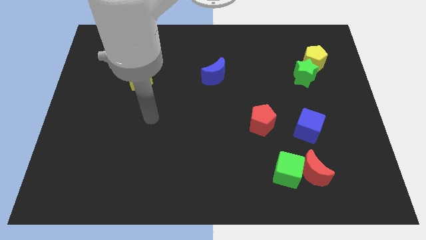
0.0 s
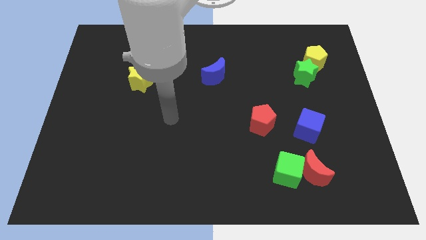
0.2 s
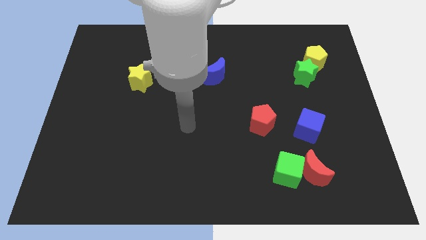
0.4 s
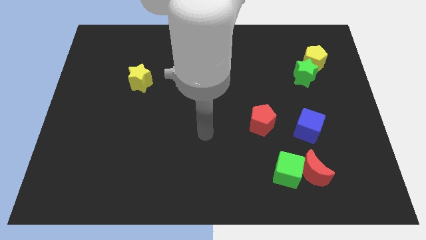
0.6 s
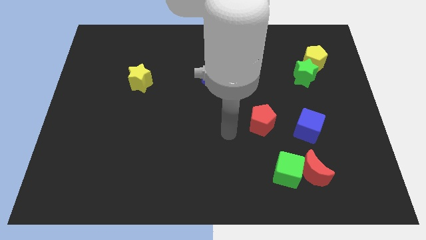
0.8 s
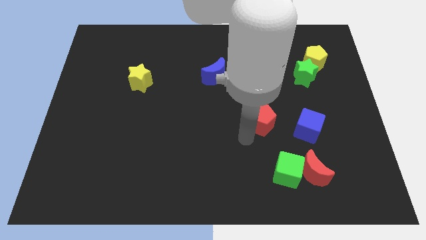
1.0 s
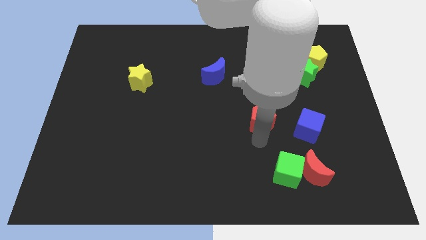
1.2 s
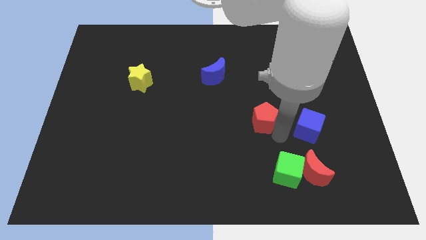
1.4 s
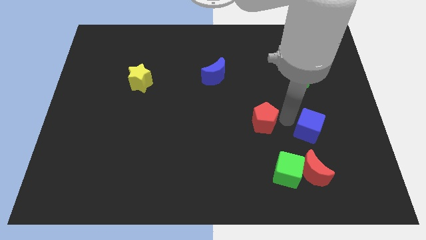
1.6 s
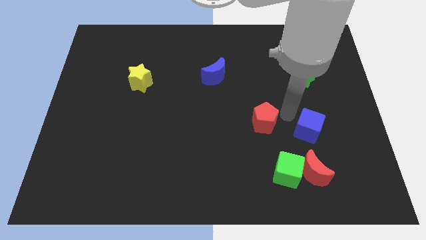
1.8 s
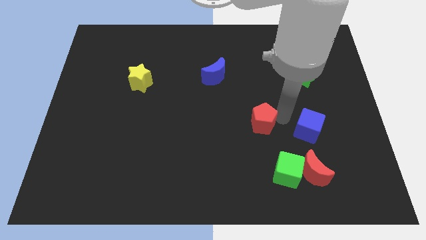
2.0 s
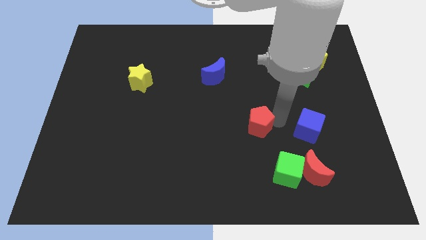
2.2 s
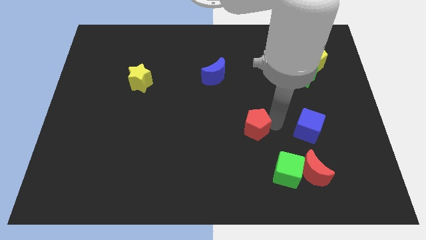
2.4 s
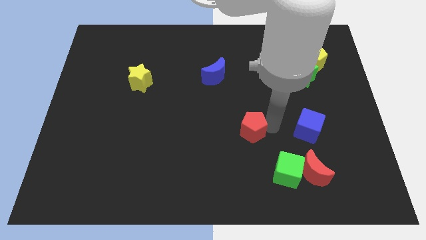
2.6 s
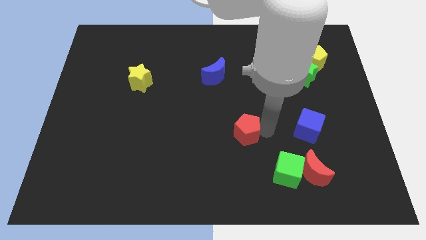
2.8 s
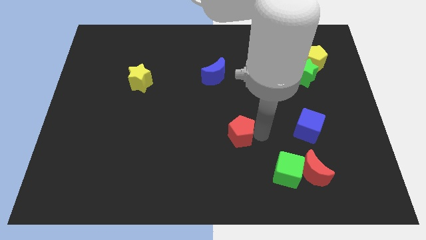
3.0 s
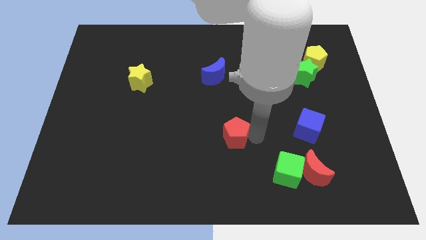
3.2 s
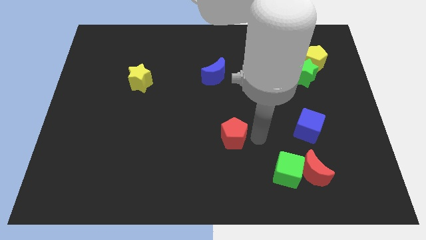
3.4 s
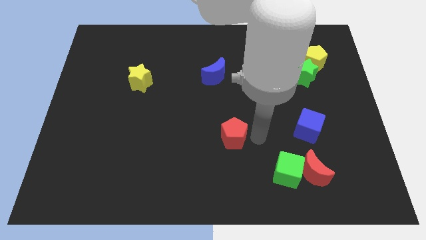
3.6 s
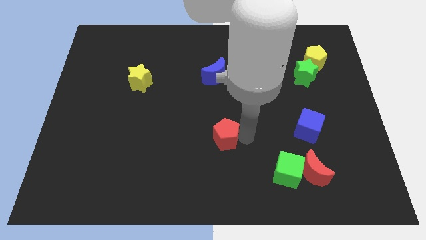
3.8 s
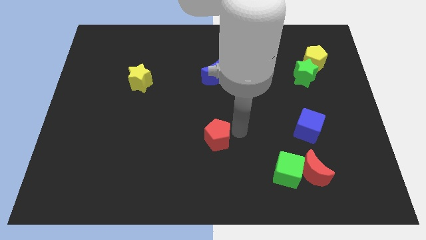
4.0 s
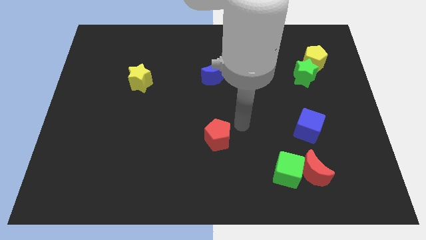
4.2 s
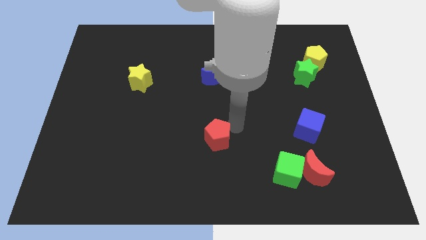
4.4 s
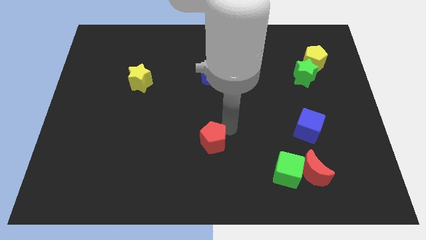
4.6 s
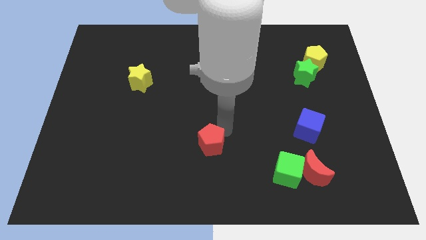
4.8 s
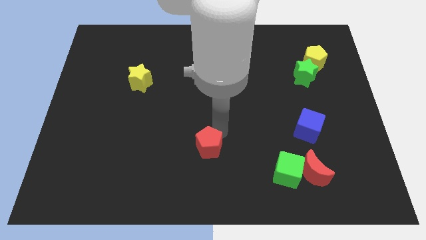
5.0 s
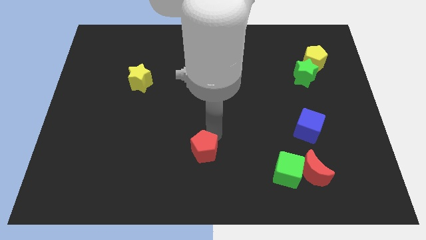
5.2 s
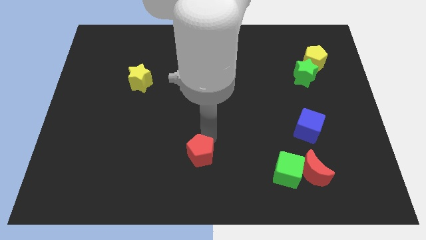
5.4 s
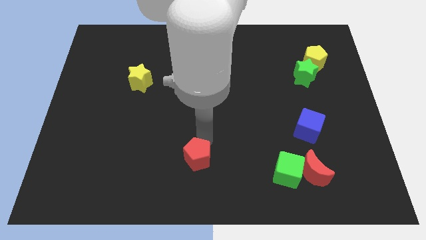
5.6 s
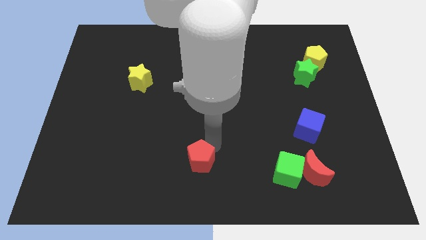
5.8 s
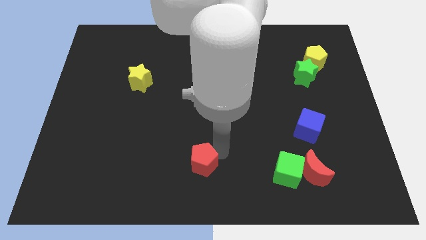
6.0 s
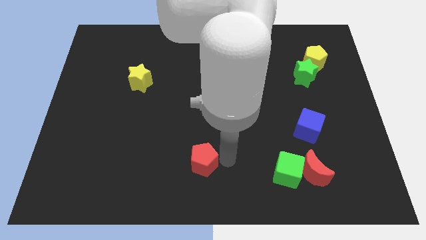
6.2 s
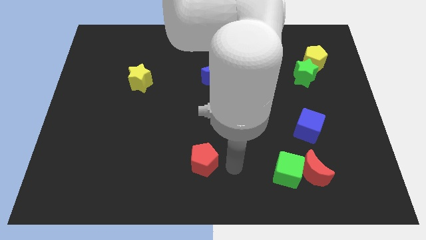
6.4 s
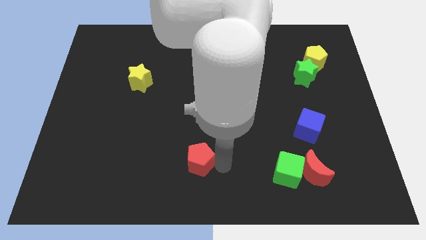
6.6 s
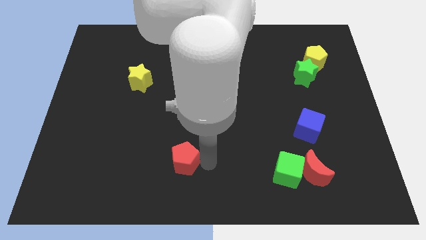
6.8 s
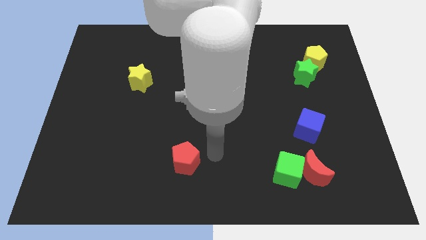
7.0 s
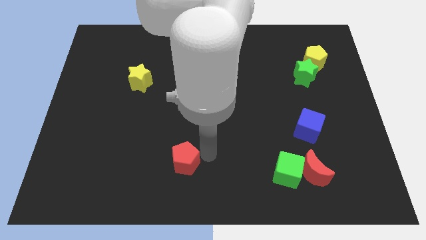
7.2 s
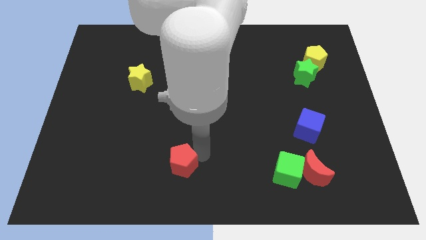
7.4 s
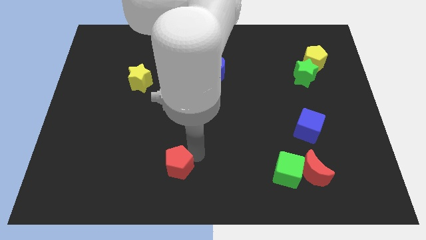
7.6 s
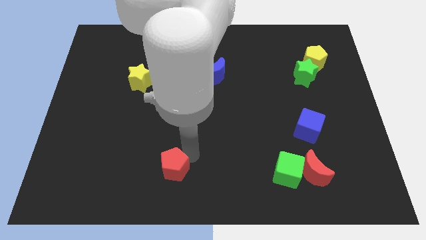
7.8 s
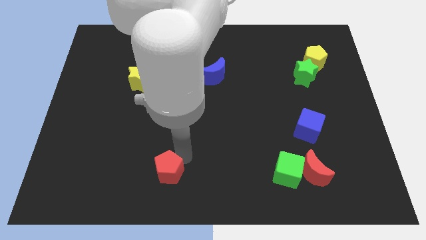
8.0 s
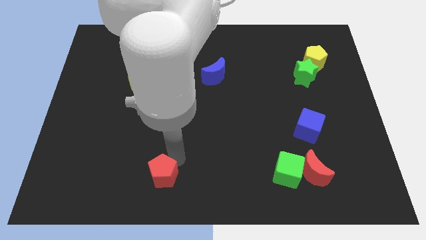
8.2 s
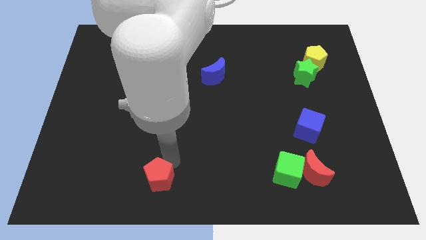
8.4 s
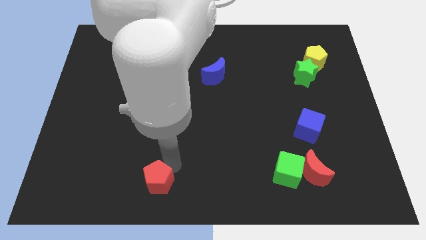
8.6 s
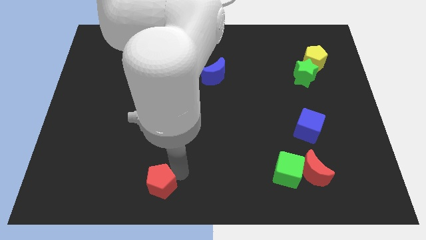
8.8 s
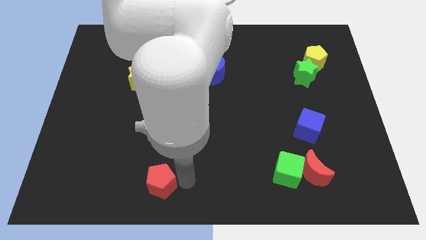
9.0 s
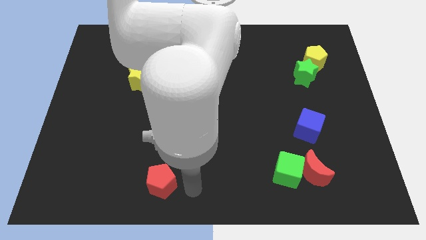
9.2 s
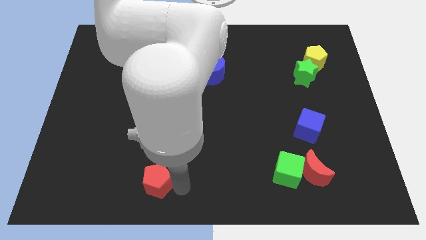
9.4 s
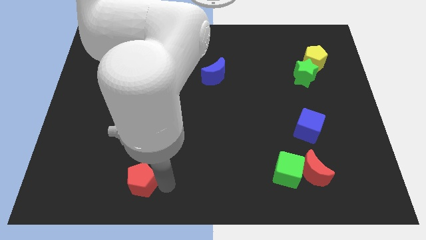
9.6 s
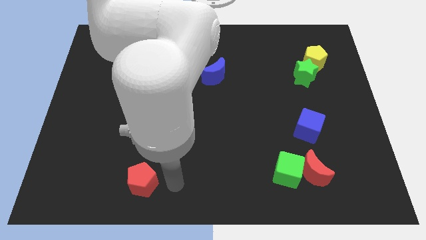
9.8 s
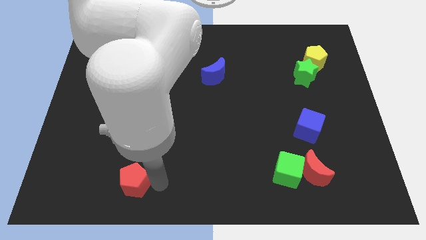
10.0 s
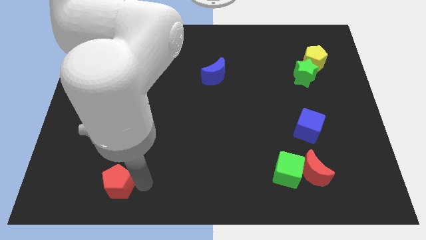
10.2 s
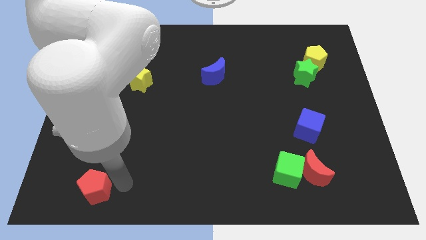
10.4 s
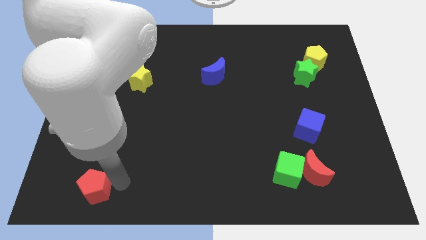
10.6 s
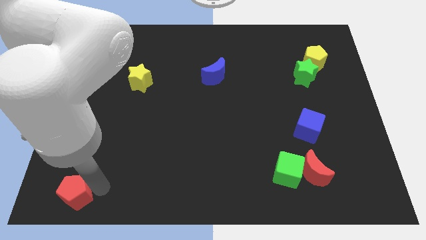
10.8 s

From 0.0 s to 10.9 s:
move the red pentagon to the bottom left corner
